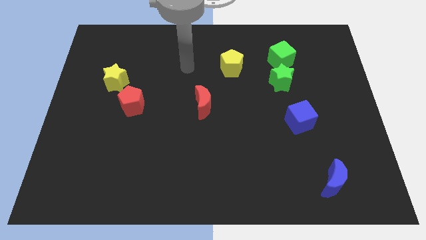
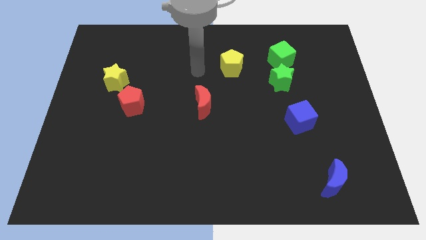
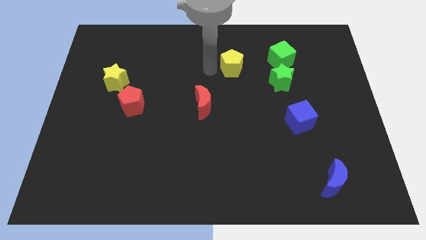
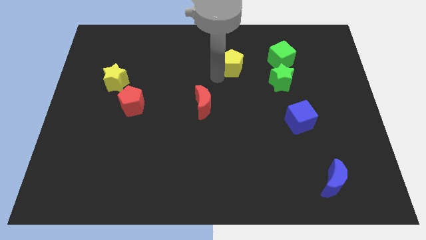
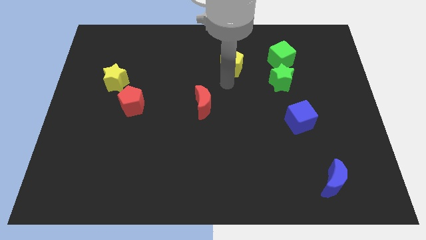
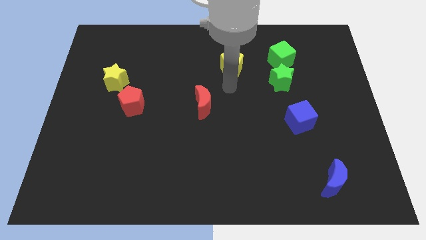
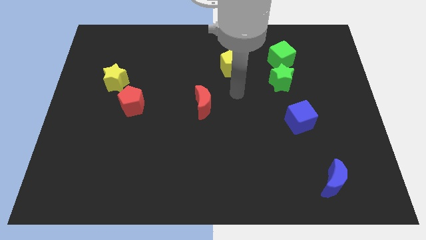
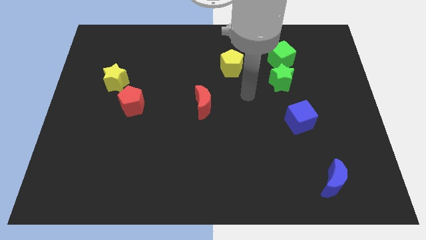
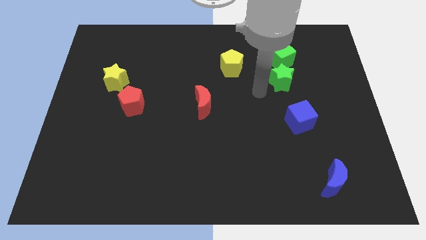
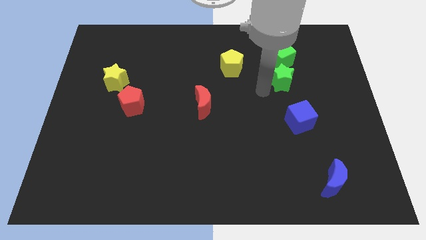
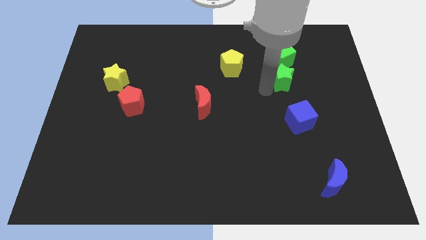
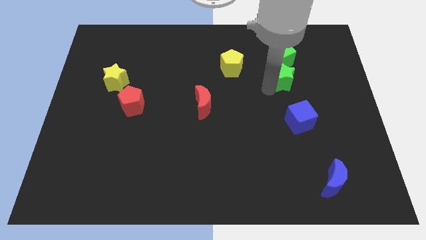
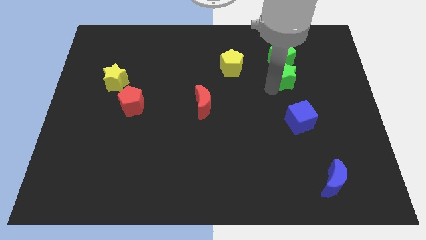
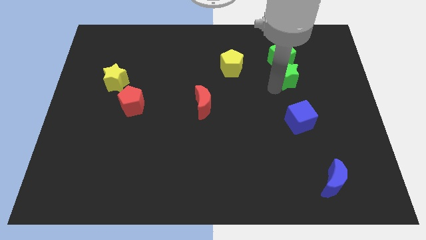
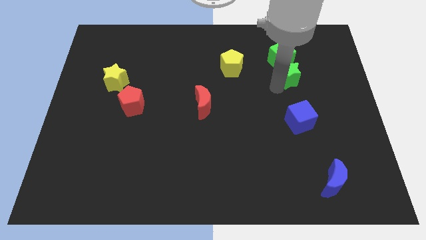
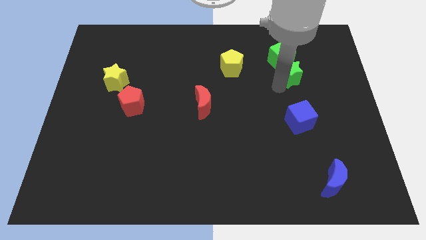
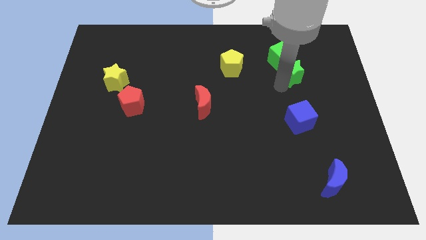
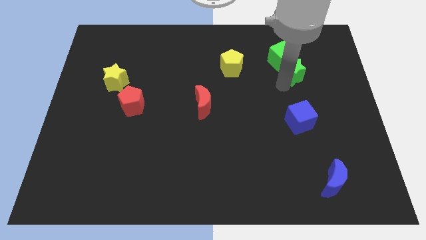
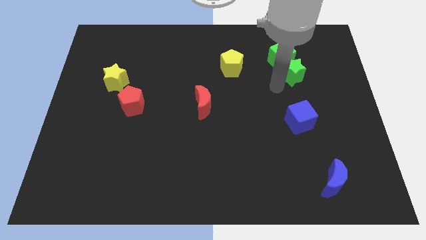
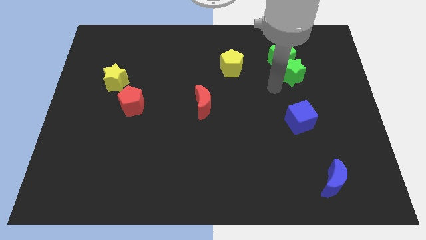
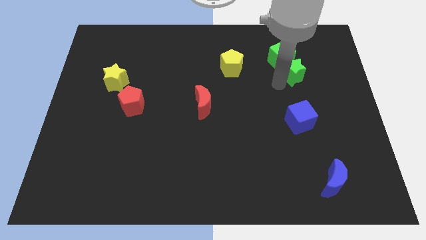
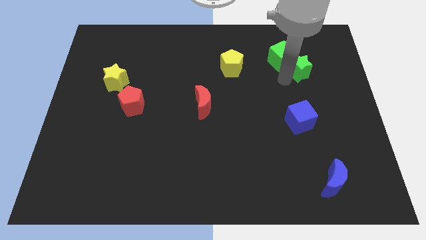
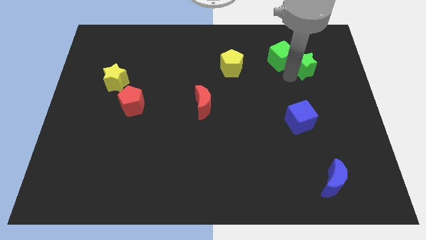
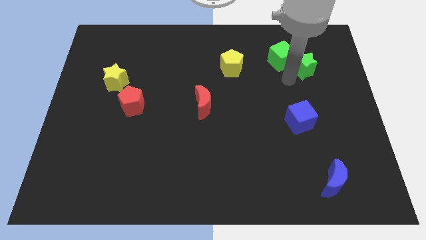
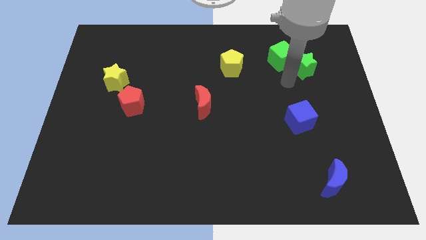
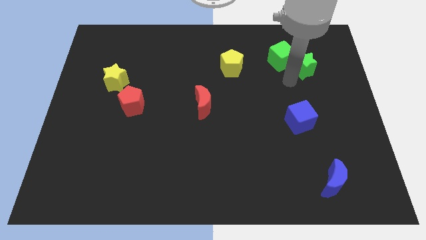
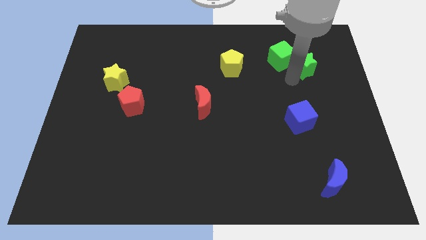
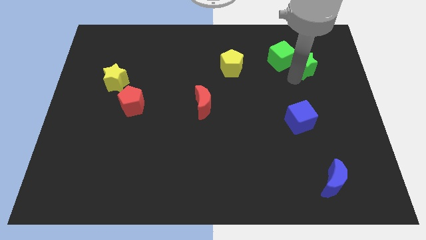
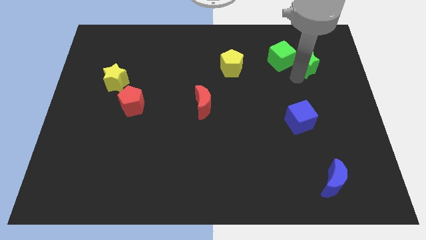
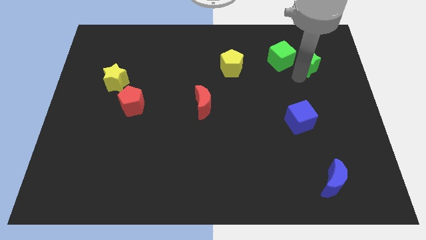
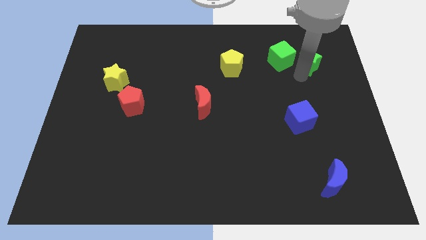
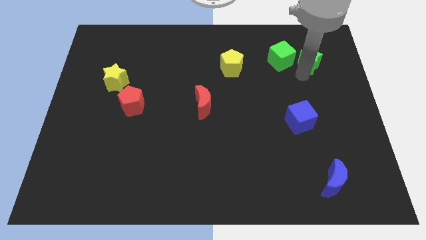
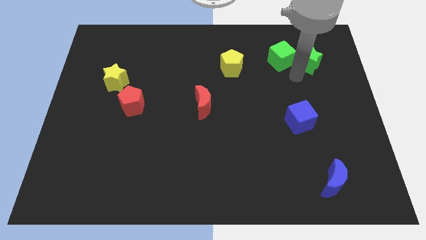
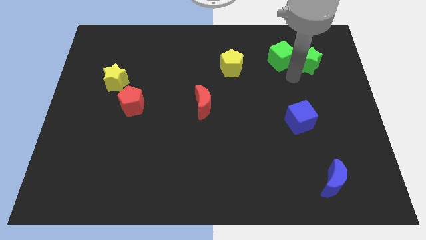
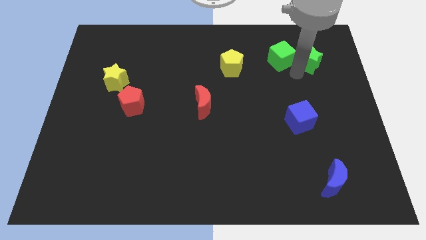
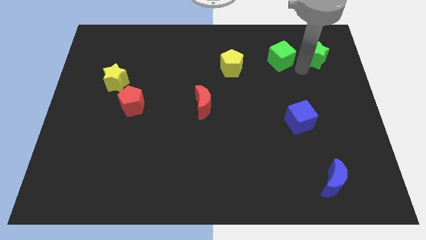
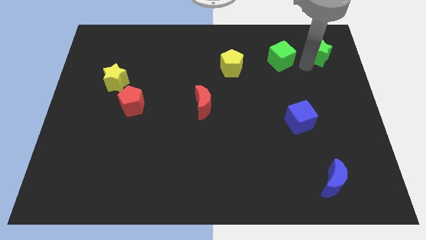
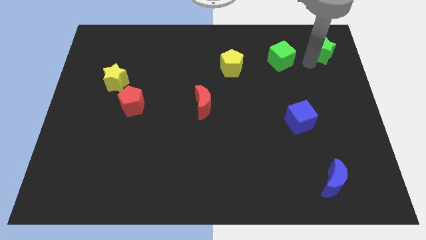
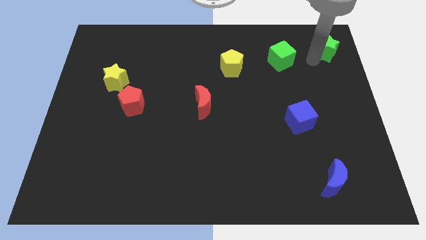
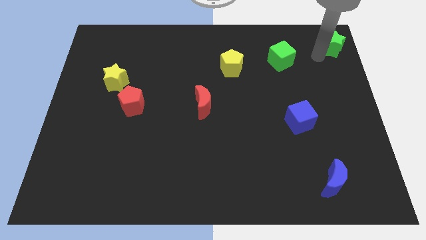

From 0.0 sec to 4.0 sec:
move the green star to the top right of the board

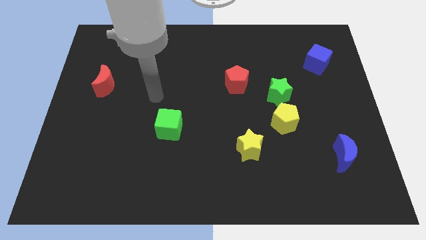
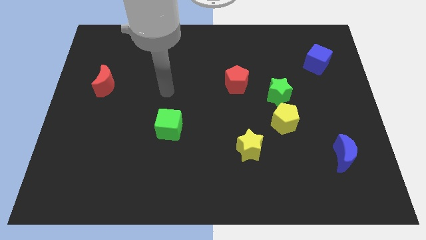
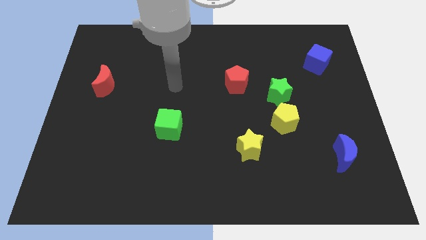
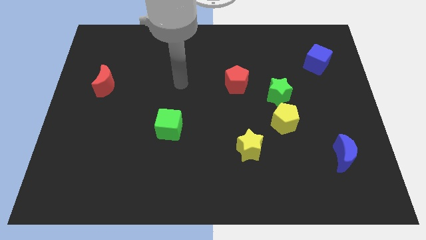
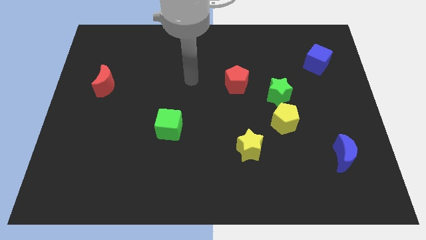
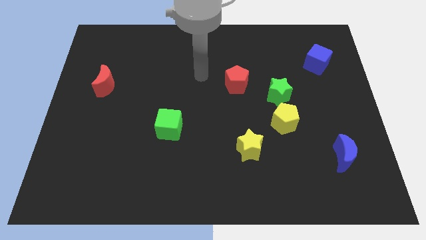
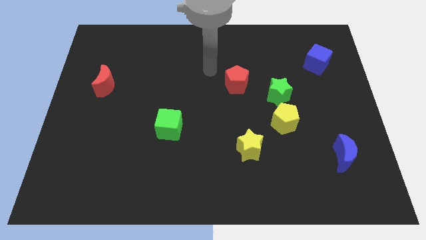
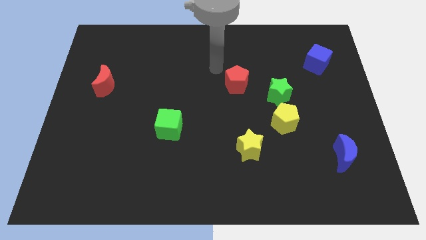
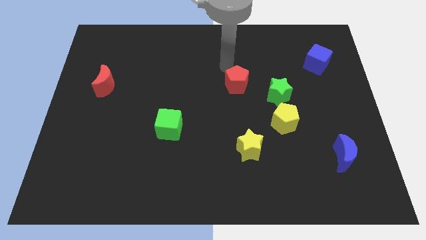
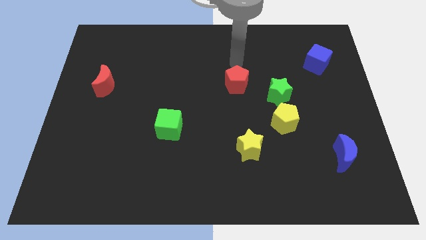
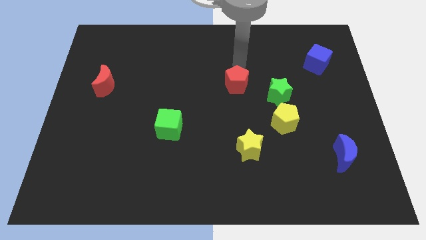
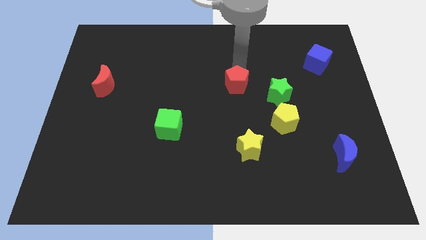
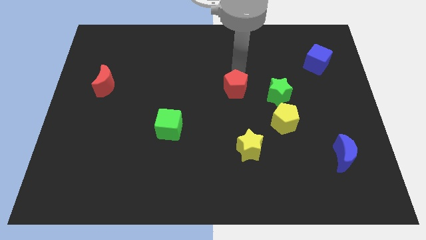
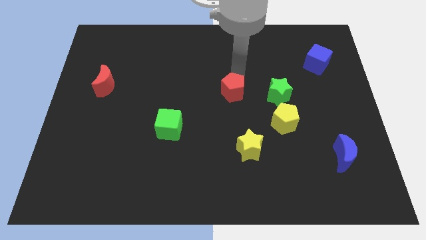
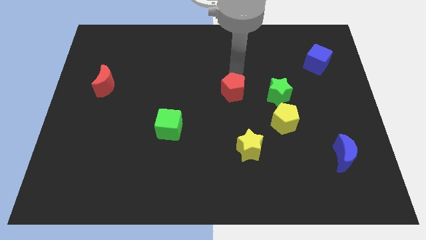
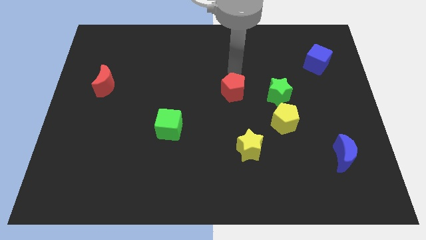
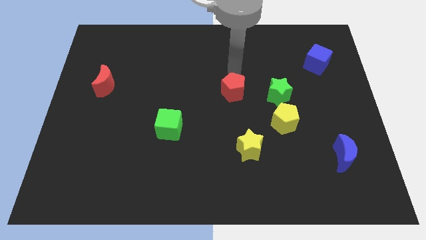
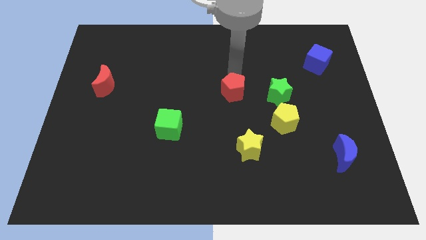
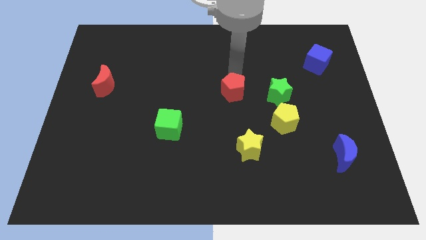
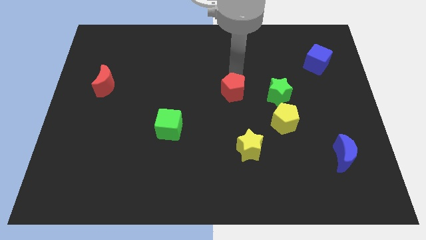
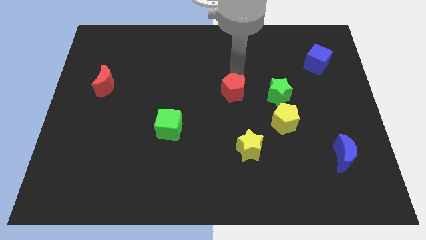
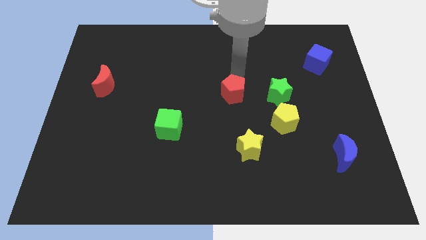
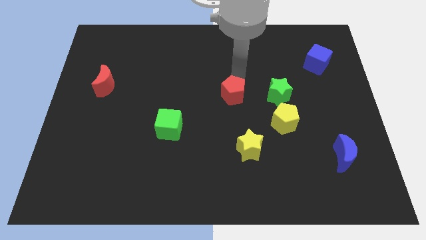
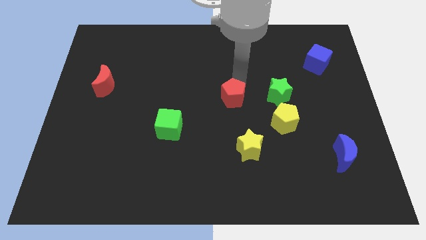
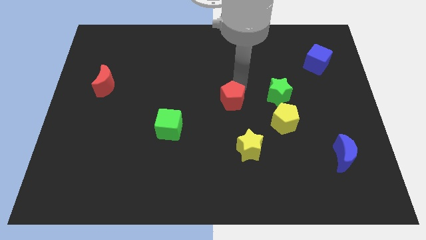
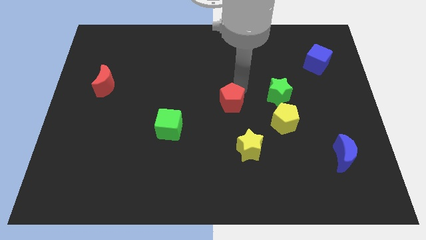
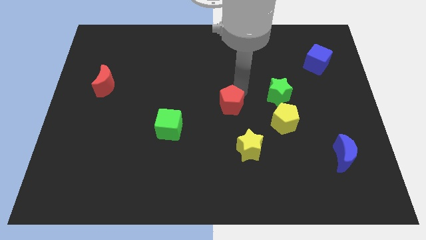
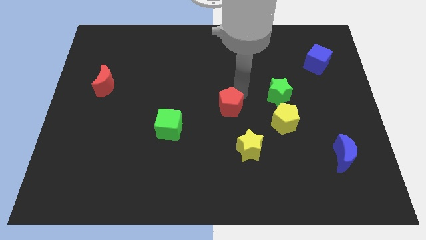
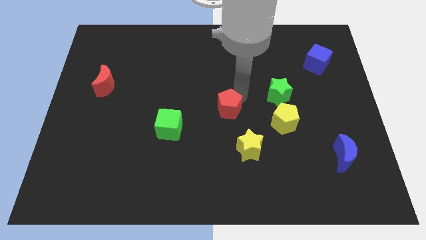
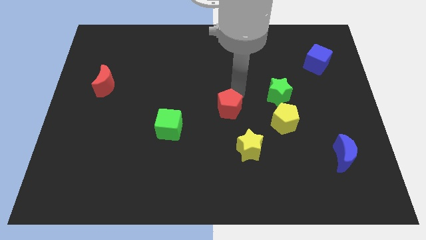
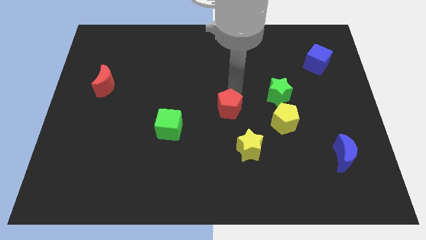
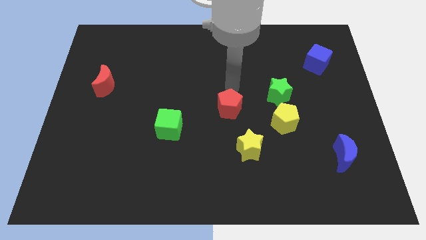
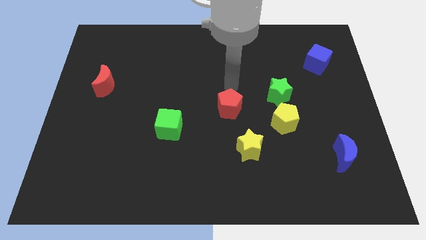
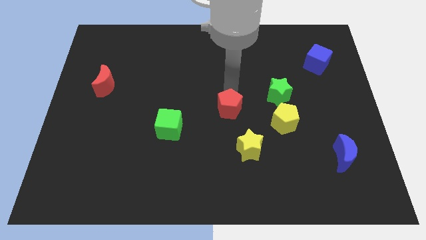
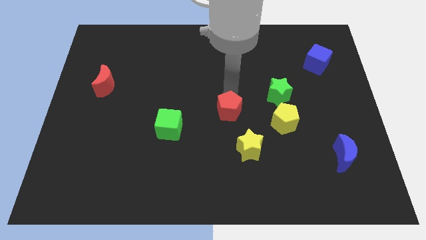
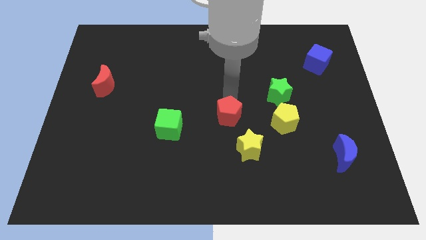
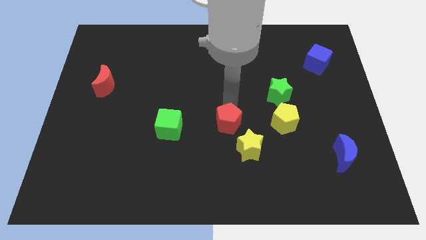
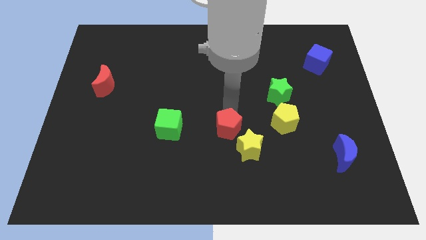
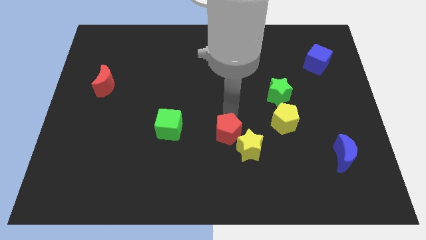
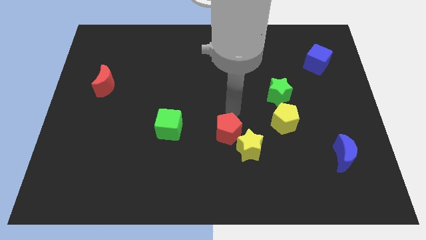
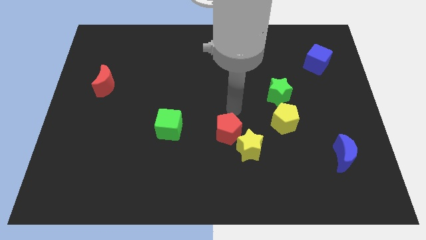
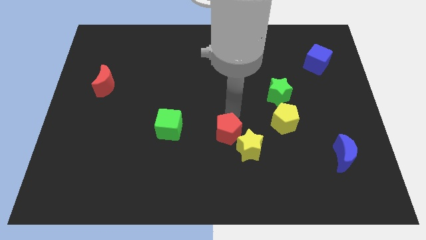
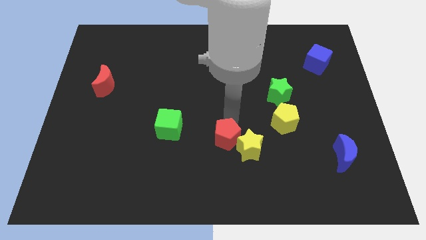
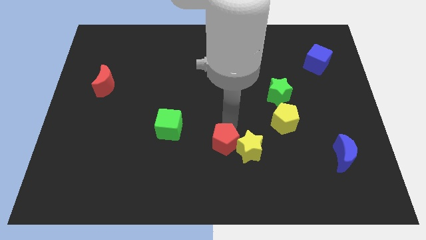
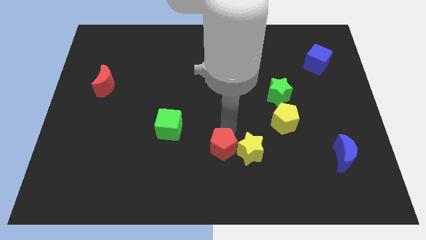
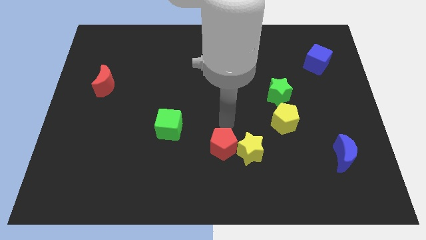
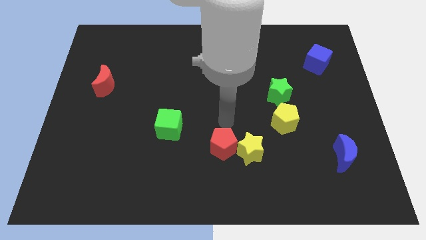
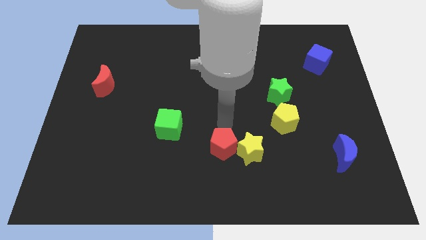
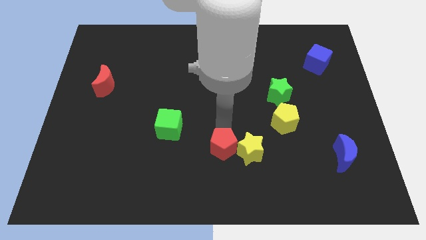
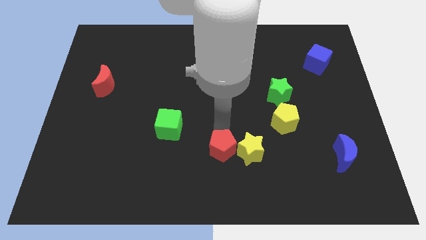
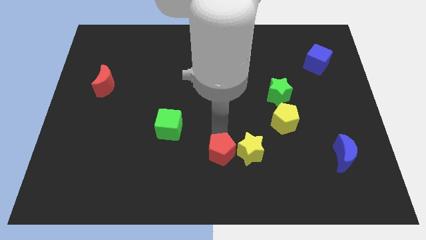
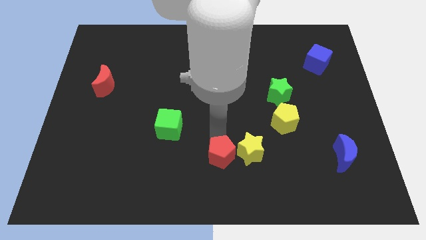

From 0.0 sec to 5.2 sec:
put the red pentagon to the bottom
